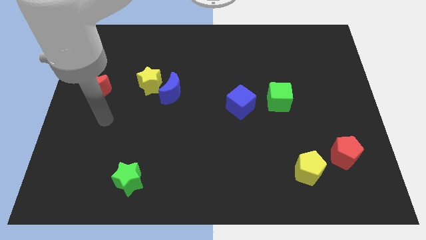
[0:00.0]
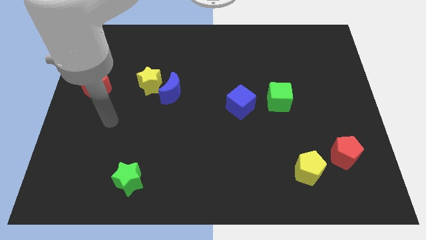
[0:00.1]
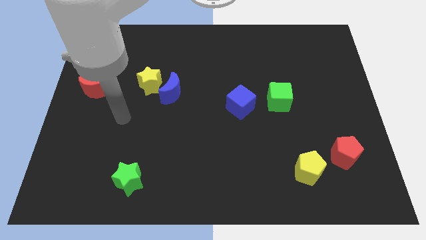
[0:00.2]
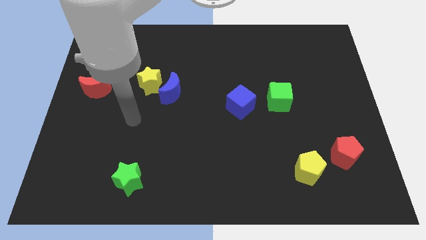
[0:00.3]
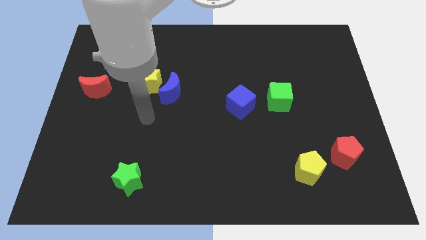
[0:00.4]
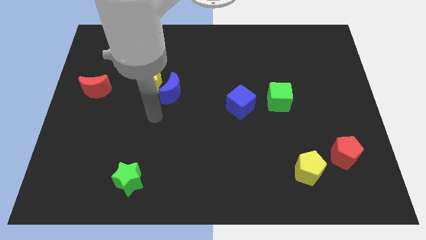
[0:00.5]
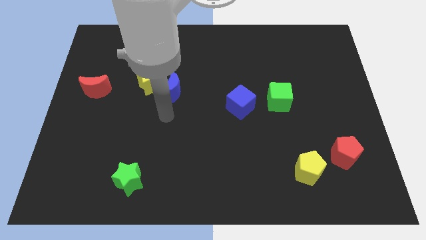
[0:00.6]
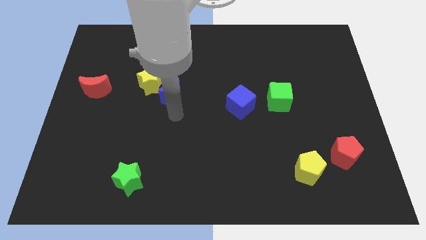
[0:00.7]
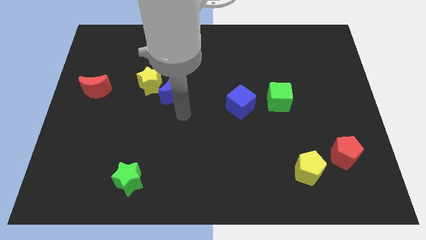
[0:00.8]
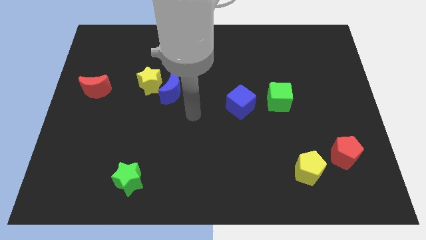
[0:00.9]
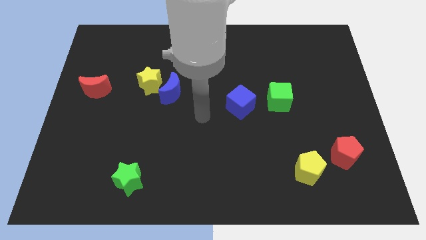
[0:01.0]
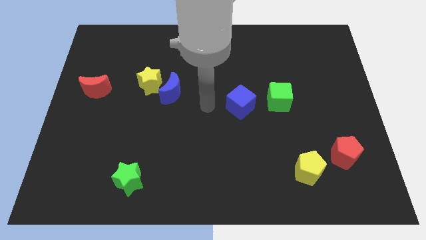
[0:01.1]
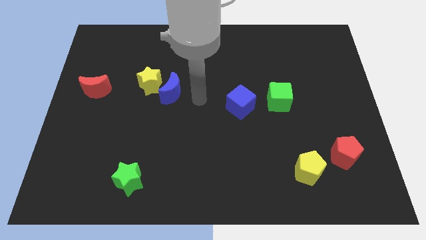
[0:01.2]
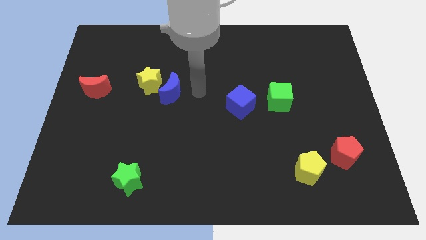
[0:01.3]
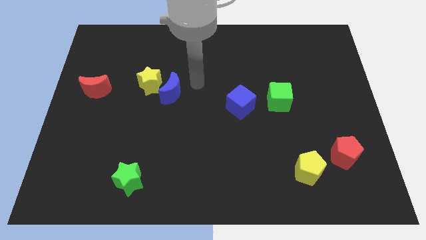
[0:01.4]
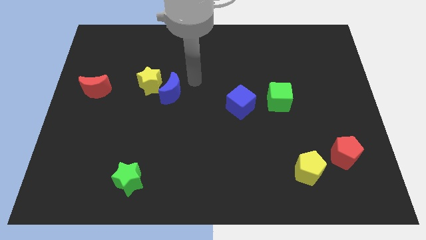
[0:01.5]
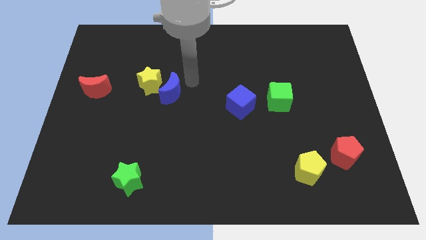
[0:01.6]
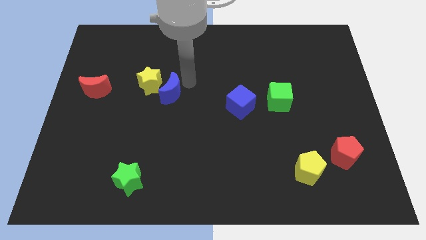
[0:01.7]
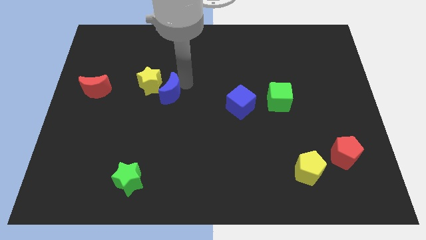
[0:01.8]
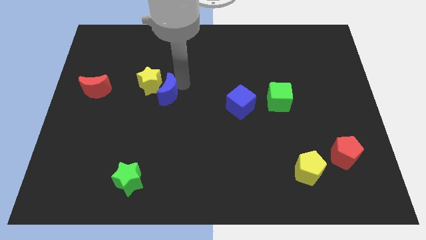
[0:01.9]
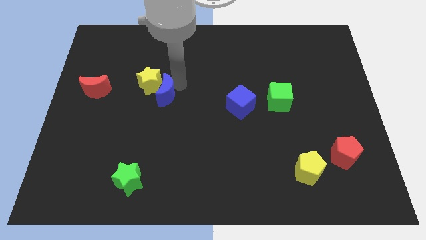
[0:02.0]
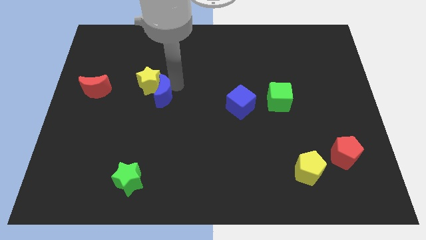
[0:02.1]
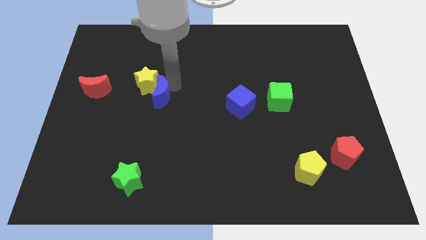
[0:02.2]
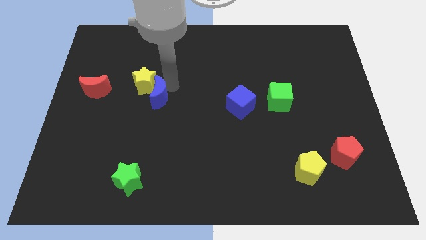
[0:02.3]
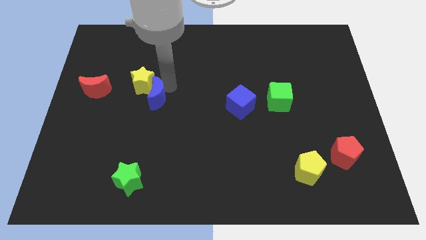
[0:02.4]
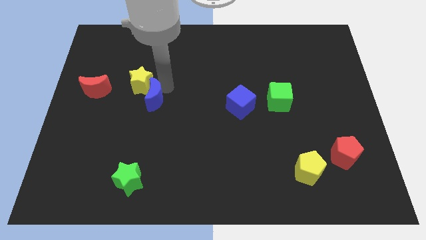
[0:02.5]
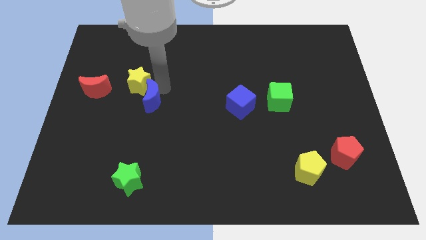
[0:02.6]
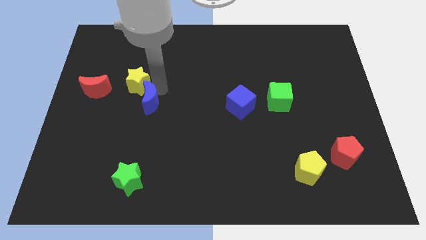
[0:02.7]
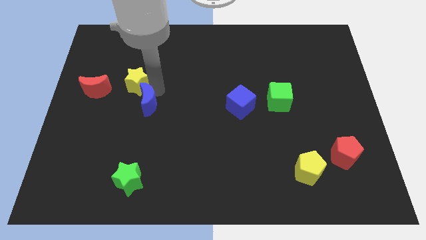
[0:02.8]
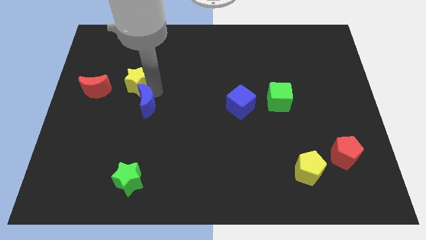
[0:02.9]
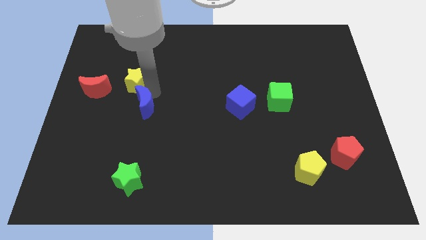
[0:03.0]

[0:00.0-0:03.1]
slightly move the blue moon down and left

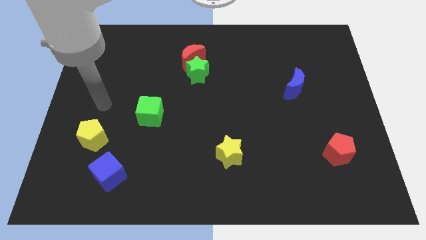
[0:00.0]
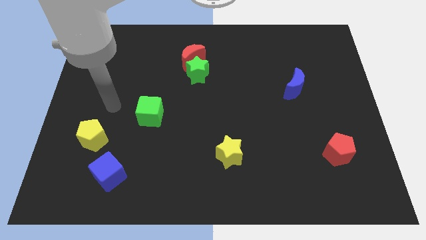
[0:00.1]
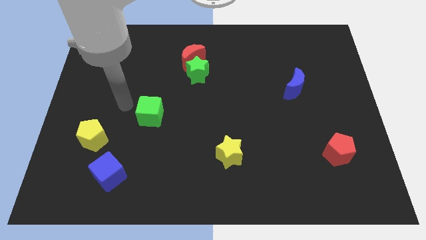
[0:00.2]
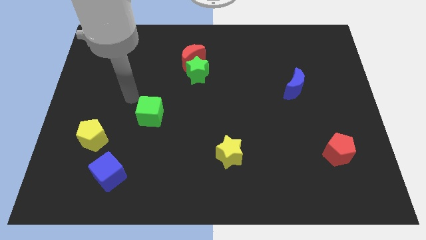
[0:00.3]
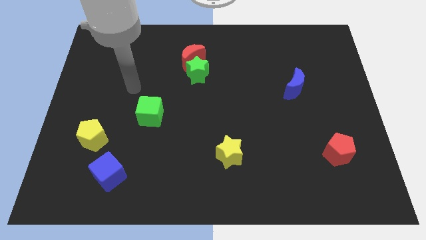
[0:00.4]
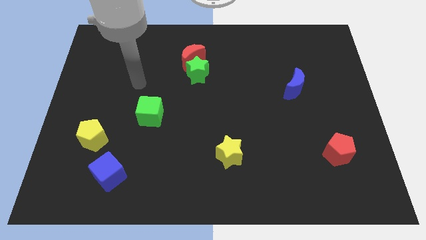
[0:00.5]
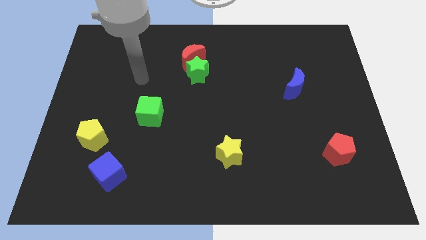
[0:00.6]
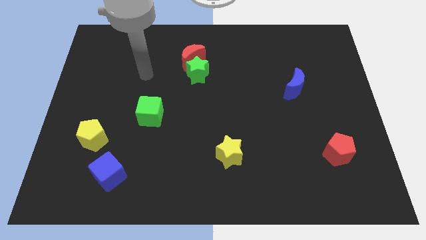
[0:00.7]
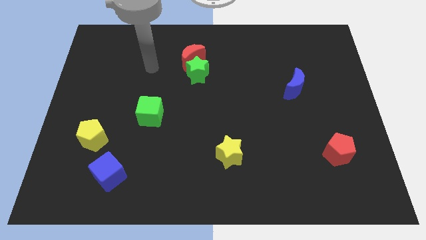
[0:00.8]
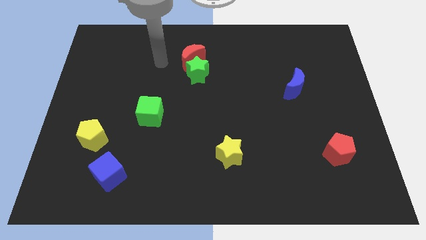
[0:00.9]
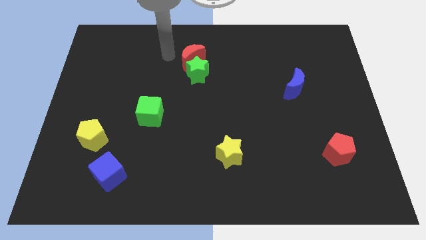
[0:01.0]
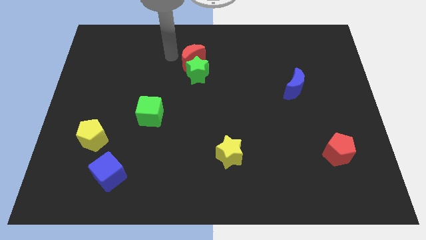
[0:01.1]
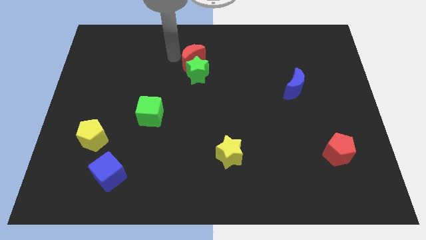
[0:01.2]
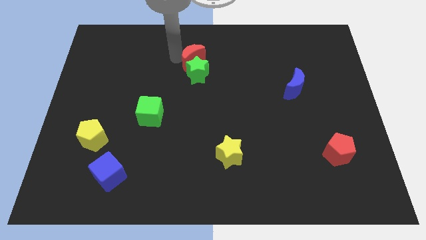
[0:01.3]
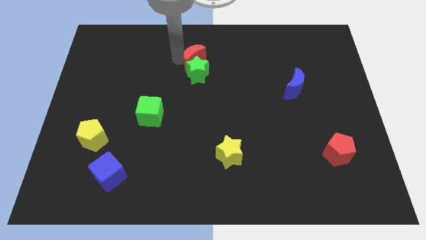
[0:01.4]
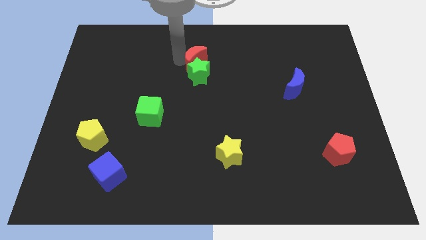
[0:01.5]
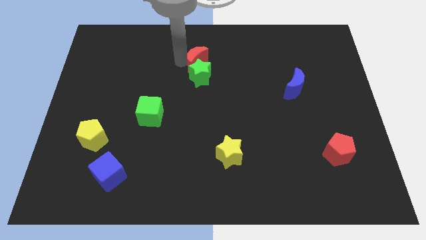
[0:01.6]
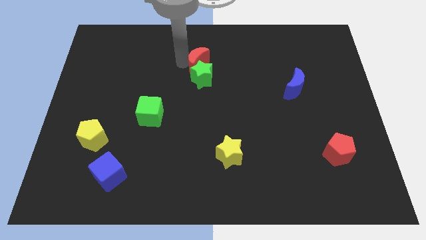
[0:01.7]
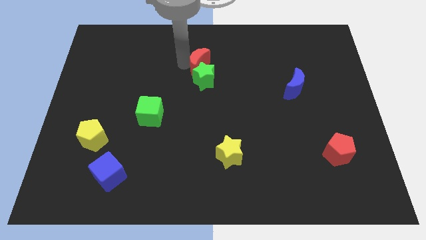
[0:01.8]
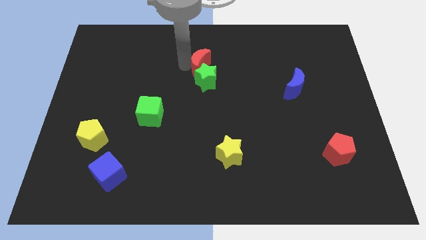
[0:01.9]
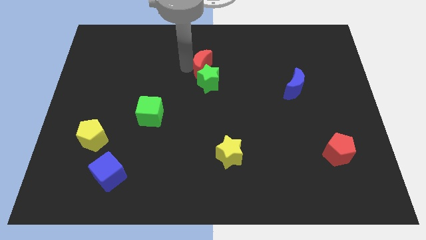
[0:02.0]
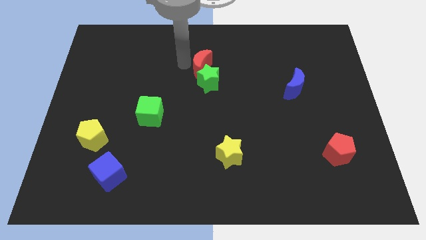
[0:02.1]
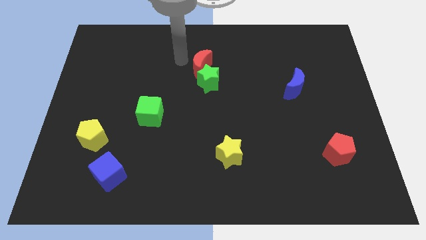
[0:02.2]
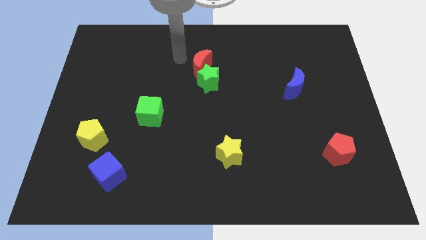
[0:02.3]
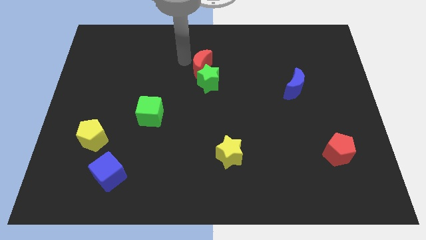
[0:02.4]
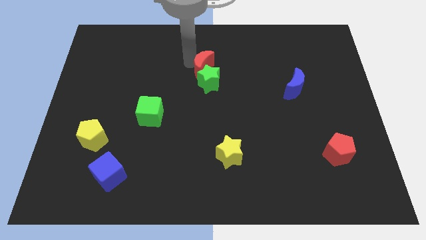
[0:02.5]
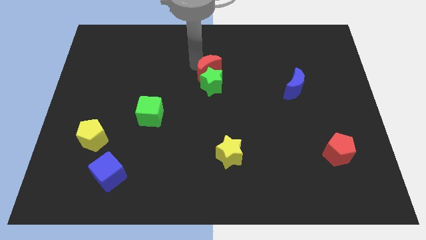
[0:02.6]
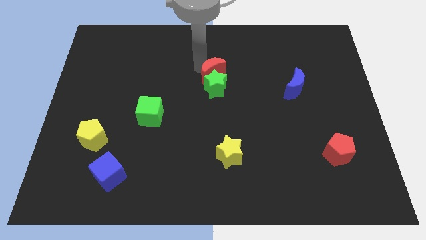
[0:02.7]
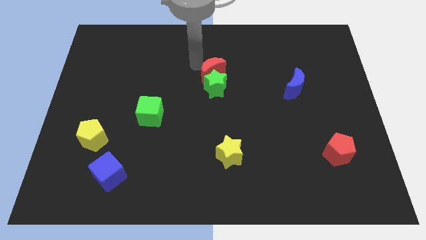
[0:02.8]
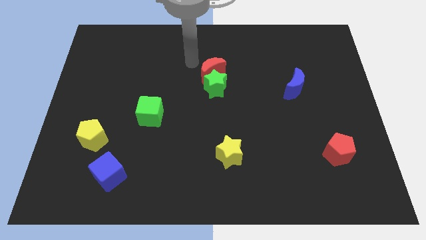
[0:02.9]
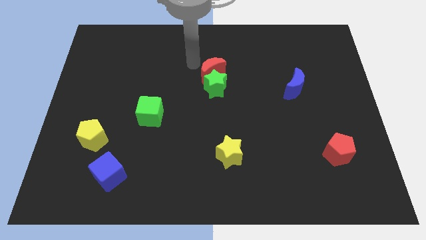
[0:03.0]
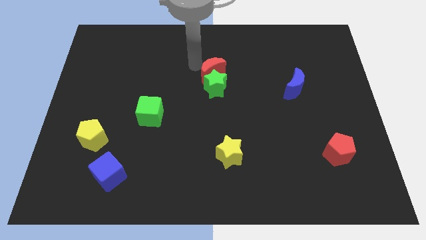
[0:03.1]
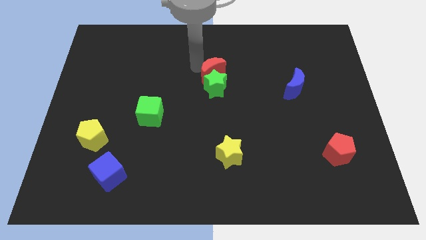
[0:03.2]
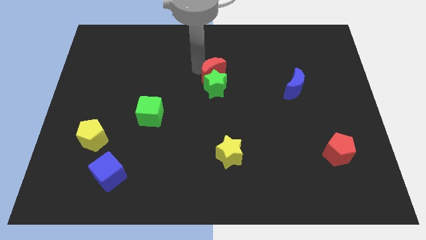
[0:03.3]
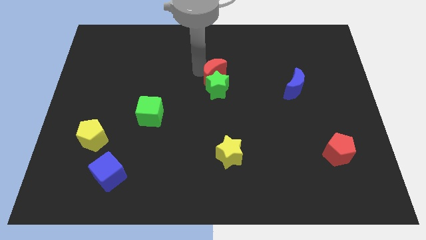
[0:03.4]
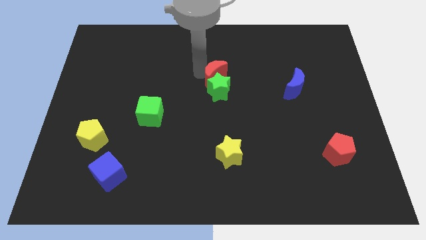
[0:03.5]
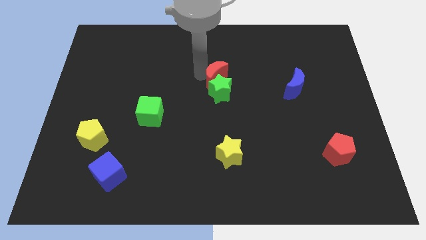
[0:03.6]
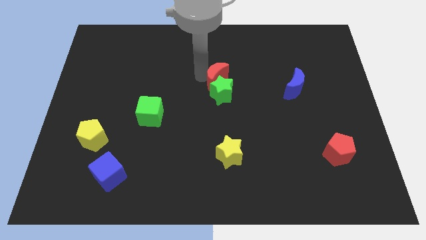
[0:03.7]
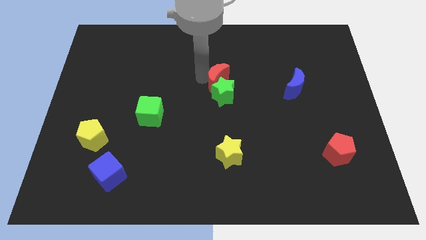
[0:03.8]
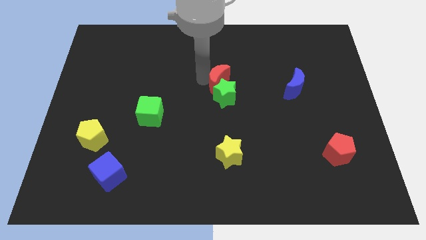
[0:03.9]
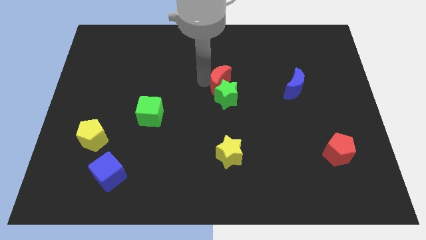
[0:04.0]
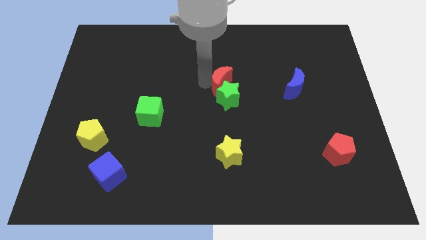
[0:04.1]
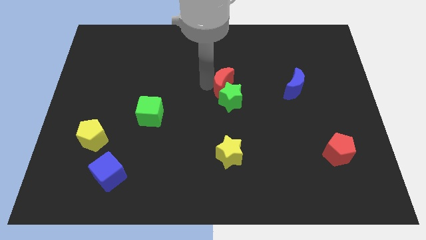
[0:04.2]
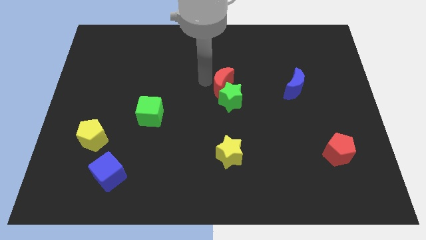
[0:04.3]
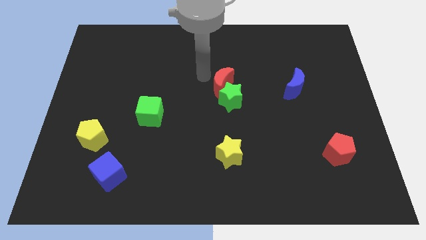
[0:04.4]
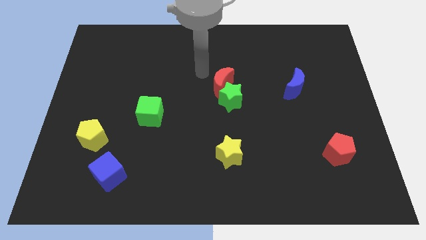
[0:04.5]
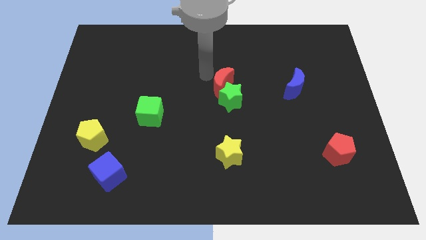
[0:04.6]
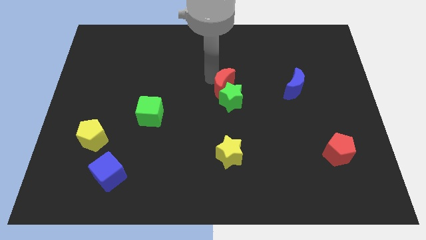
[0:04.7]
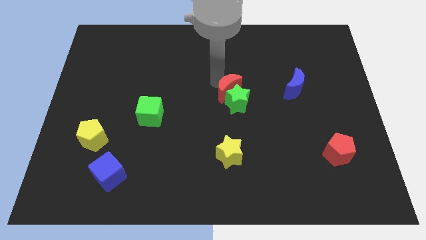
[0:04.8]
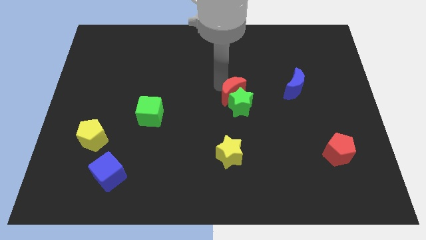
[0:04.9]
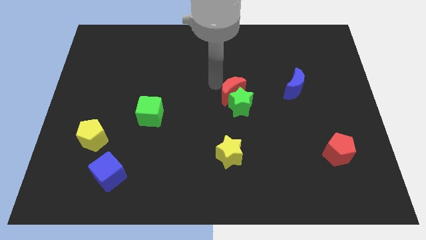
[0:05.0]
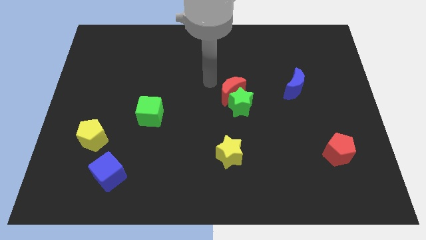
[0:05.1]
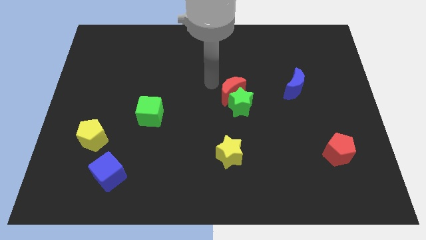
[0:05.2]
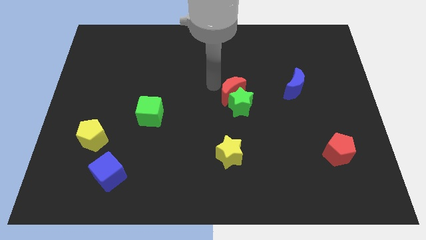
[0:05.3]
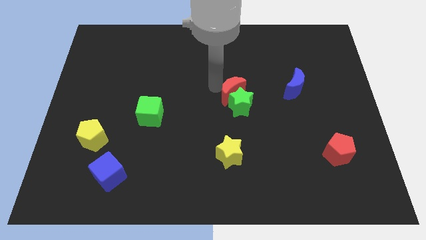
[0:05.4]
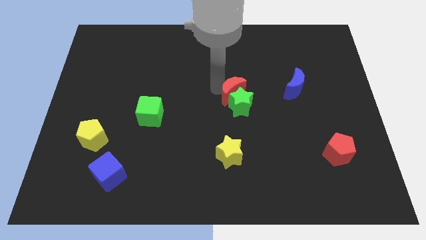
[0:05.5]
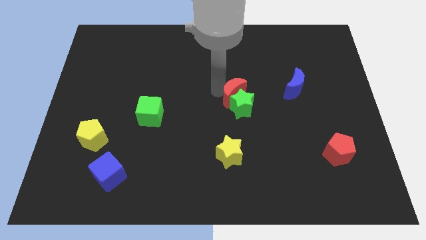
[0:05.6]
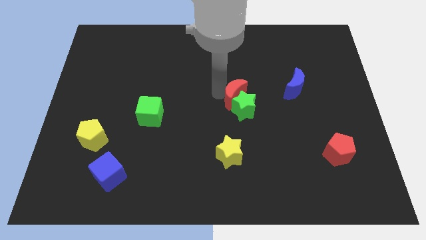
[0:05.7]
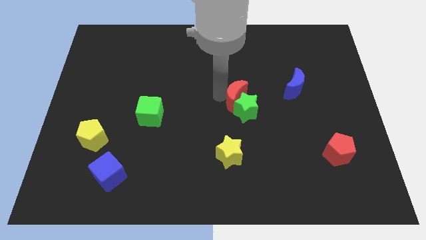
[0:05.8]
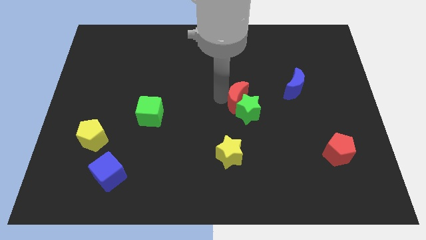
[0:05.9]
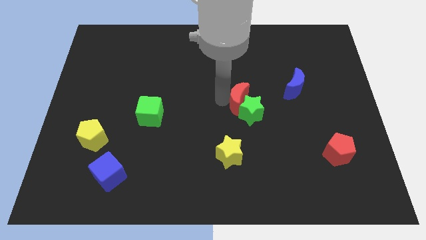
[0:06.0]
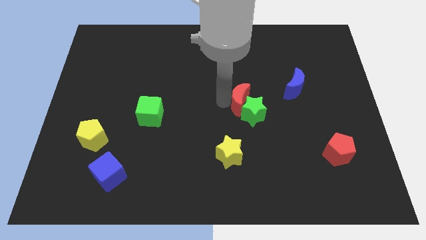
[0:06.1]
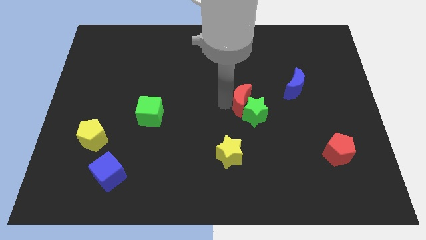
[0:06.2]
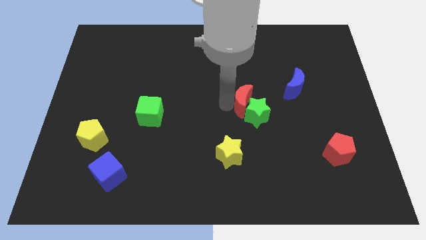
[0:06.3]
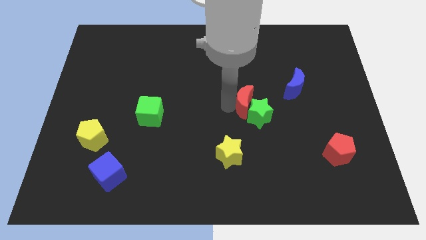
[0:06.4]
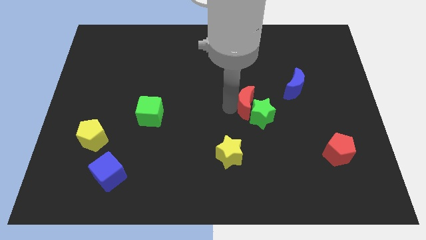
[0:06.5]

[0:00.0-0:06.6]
push the red moon downwards and right
